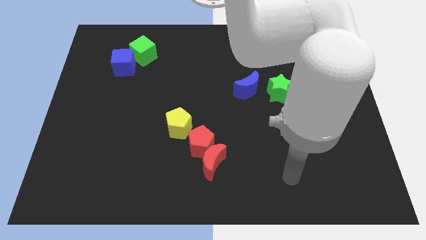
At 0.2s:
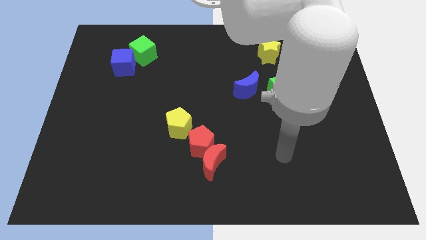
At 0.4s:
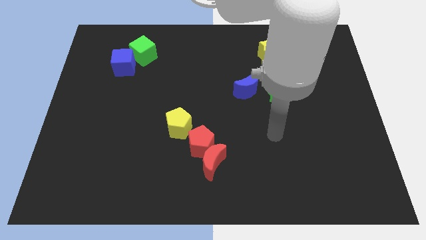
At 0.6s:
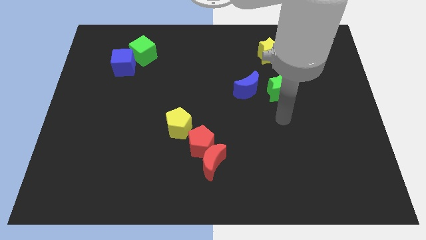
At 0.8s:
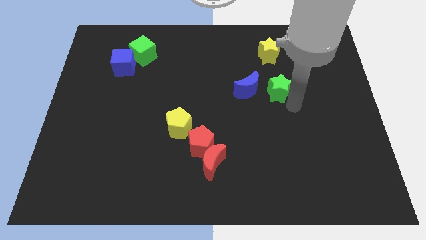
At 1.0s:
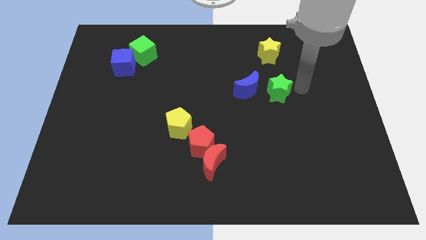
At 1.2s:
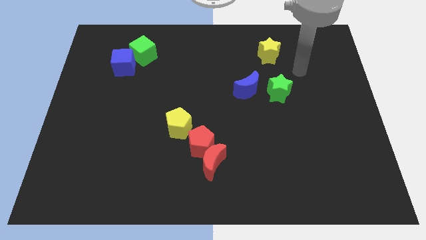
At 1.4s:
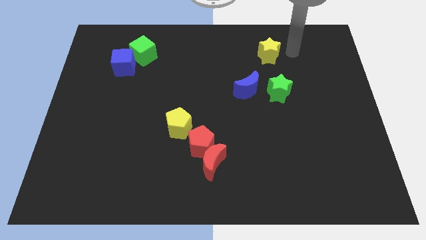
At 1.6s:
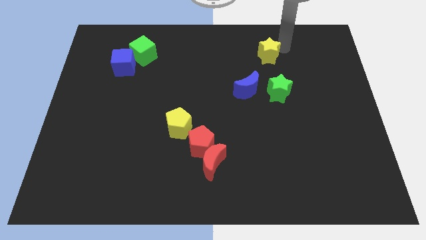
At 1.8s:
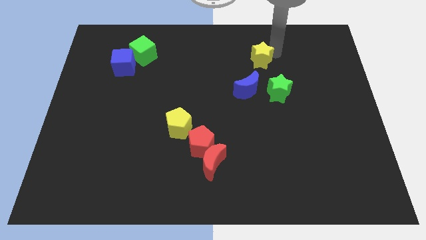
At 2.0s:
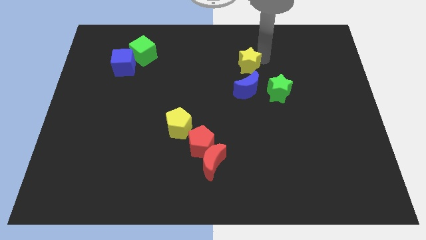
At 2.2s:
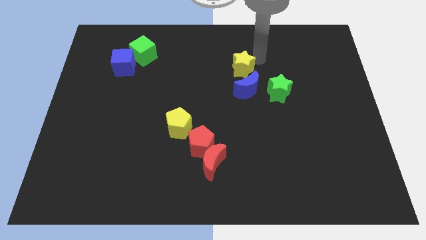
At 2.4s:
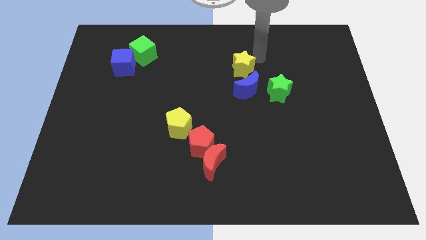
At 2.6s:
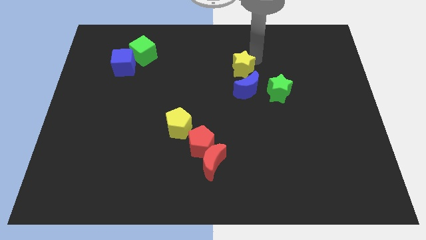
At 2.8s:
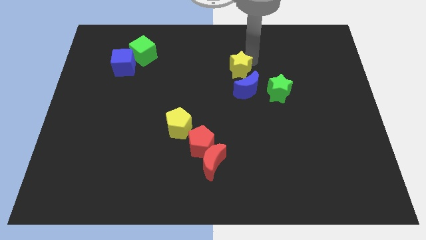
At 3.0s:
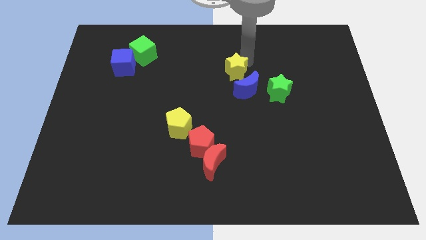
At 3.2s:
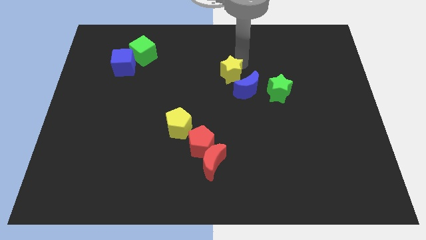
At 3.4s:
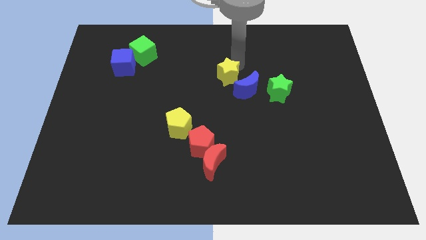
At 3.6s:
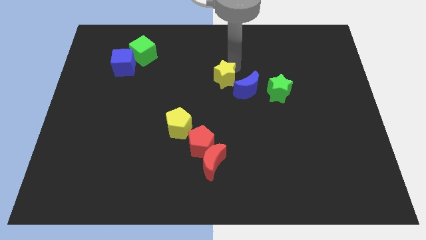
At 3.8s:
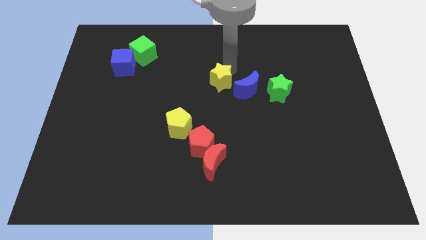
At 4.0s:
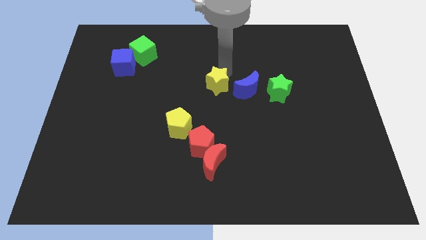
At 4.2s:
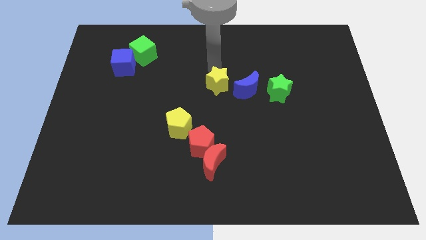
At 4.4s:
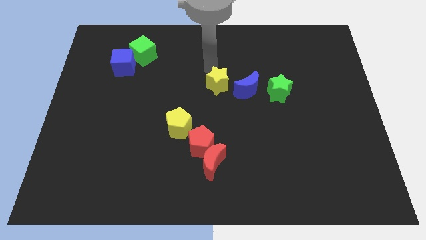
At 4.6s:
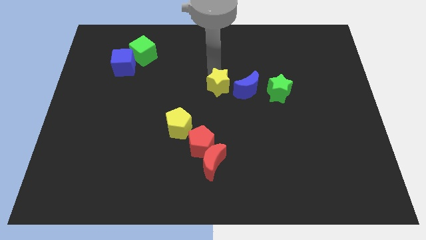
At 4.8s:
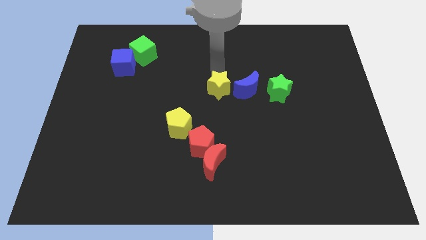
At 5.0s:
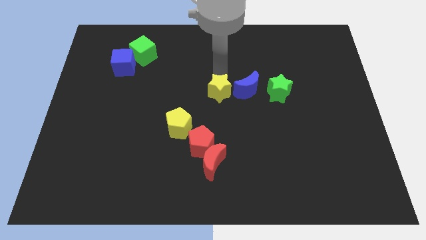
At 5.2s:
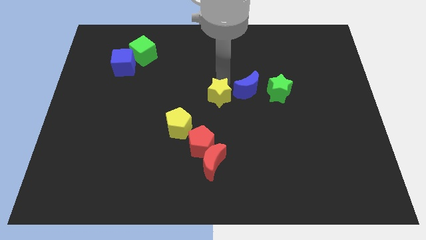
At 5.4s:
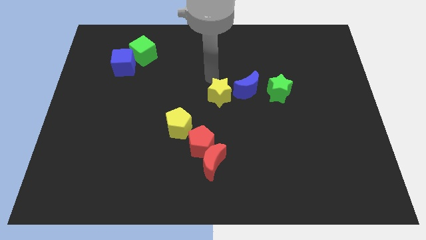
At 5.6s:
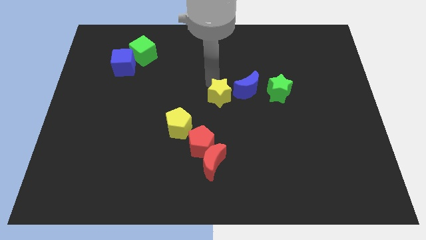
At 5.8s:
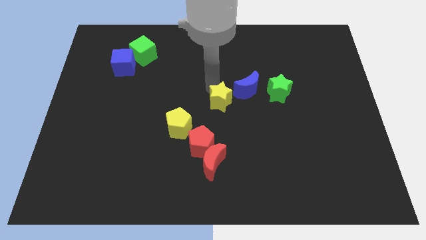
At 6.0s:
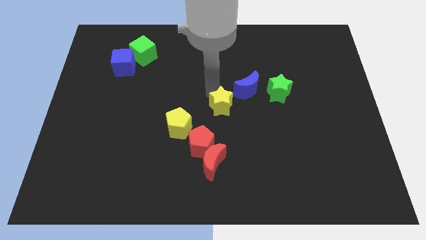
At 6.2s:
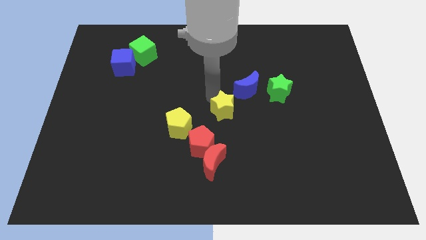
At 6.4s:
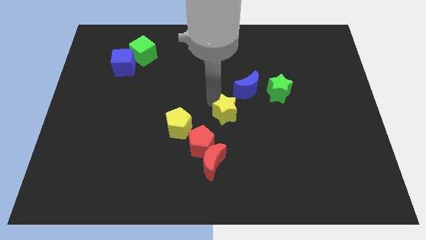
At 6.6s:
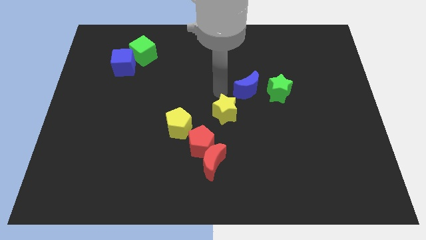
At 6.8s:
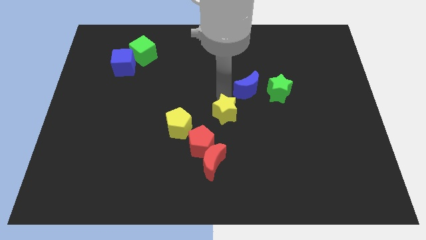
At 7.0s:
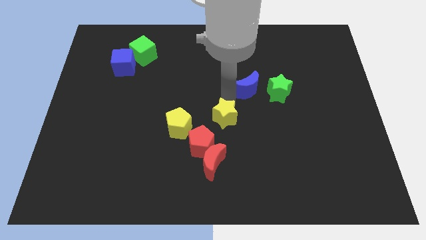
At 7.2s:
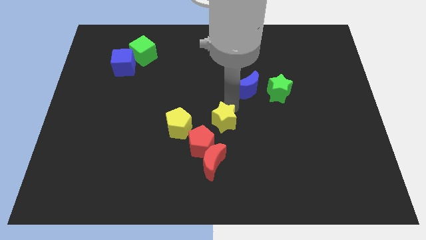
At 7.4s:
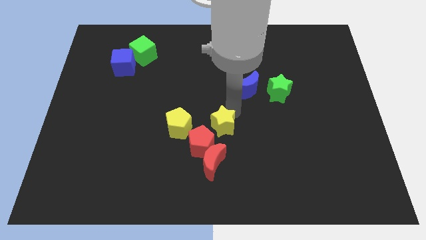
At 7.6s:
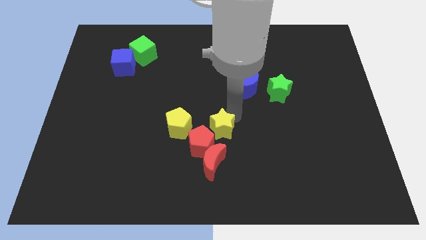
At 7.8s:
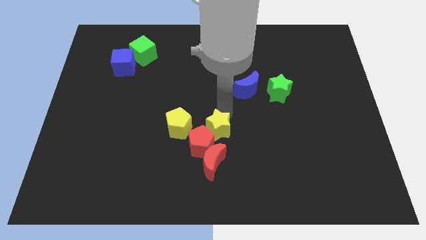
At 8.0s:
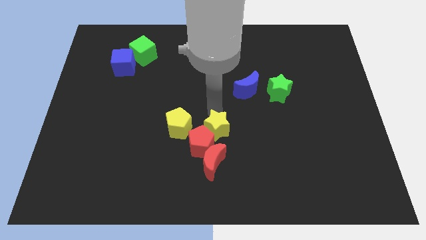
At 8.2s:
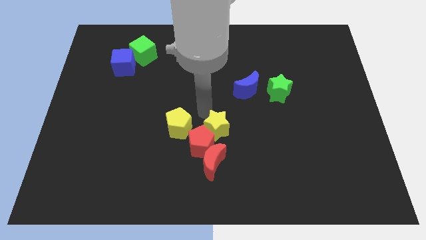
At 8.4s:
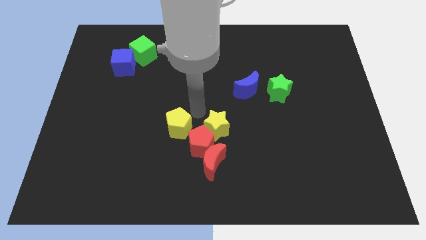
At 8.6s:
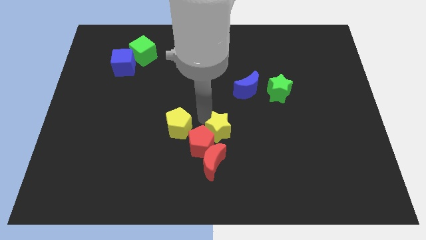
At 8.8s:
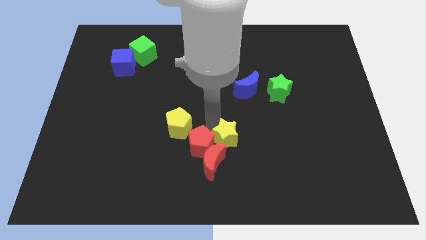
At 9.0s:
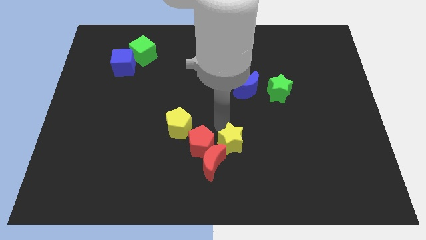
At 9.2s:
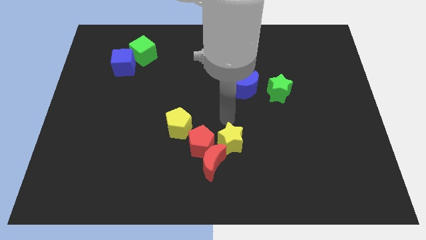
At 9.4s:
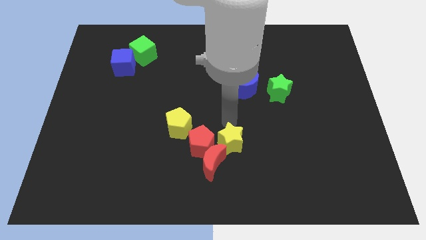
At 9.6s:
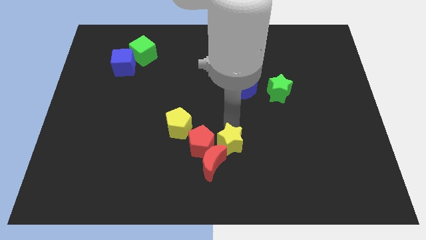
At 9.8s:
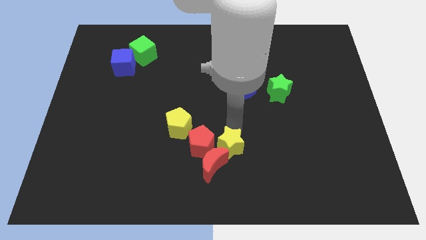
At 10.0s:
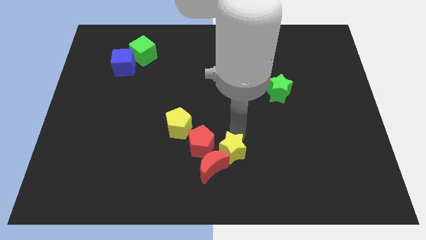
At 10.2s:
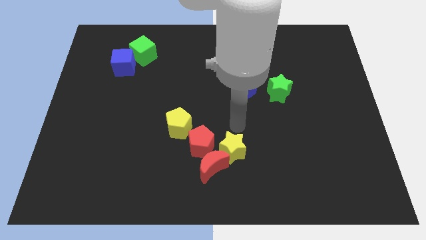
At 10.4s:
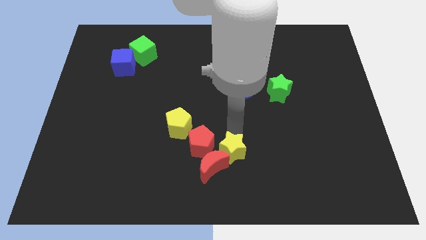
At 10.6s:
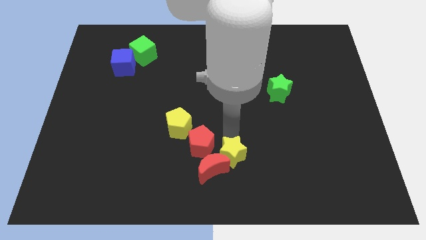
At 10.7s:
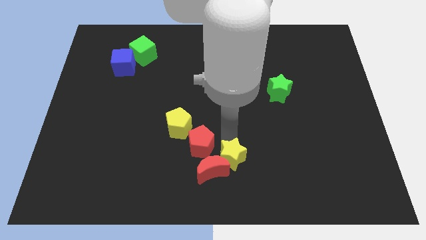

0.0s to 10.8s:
put the yellow star to the bottom

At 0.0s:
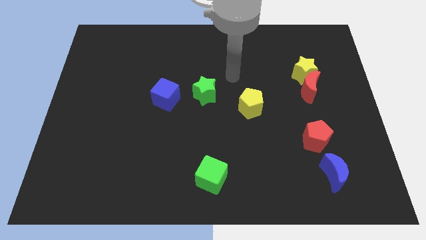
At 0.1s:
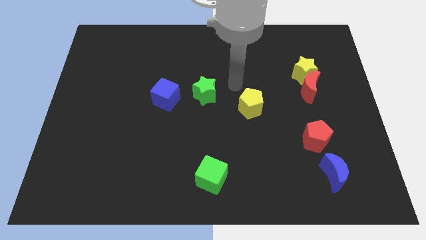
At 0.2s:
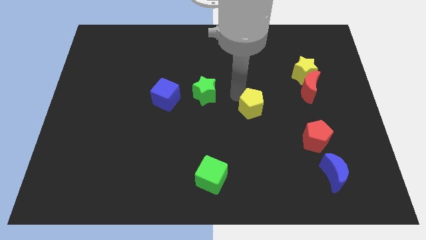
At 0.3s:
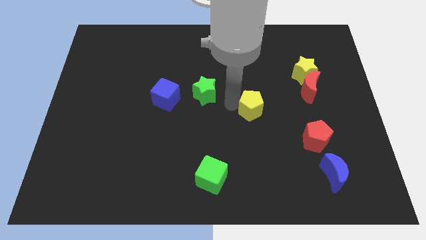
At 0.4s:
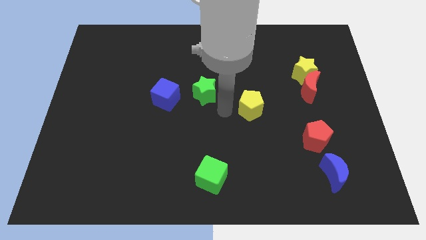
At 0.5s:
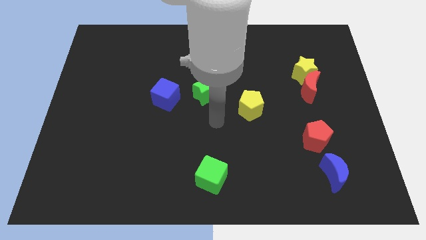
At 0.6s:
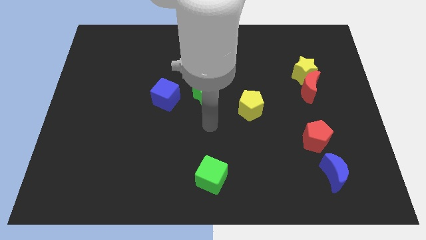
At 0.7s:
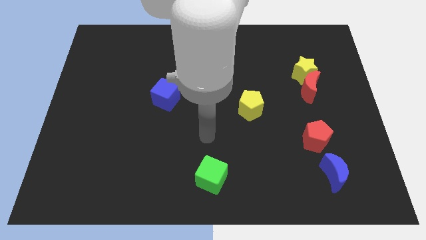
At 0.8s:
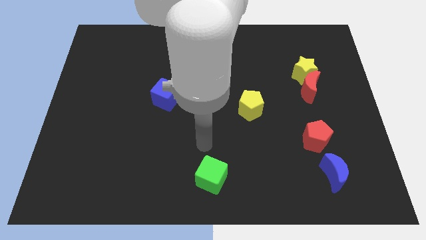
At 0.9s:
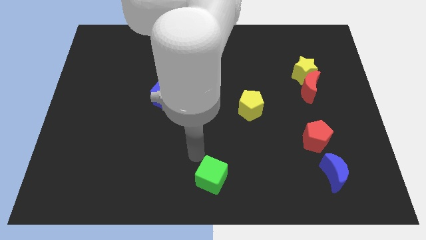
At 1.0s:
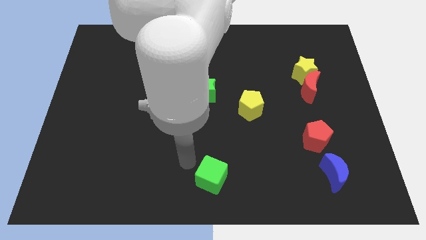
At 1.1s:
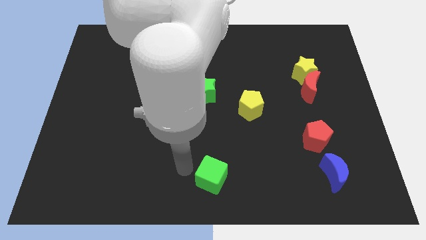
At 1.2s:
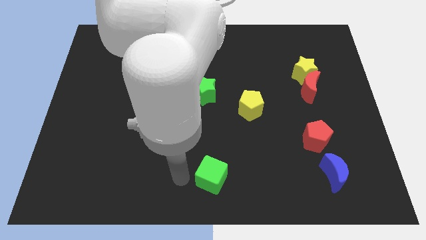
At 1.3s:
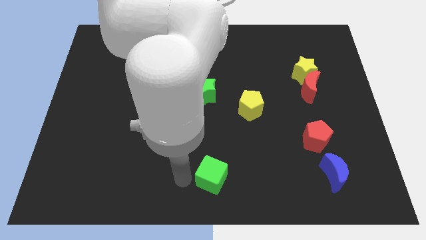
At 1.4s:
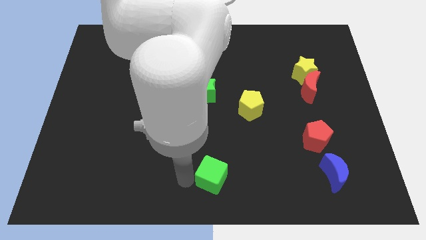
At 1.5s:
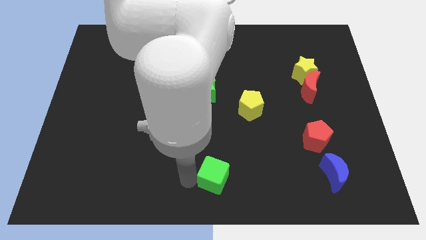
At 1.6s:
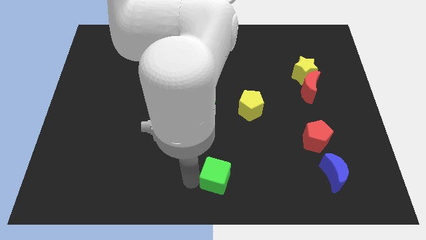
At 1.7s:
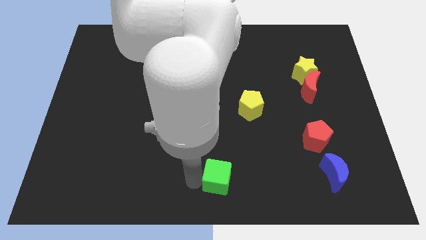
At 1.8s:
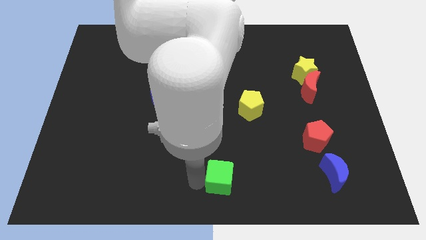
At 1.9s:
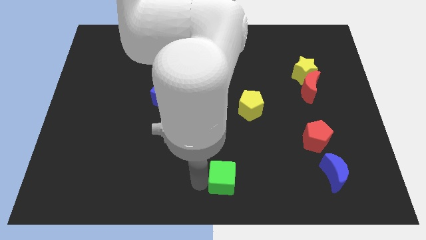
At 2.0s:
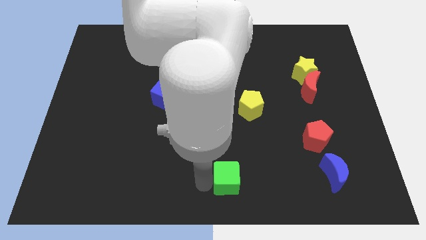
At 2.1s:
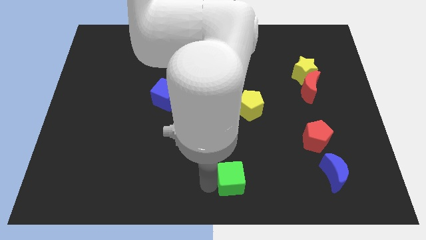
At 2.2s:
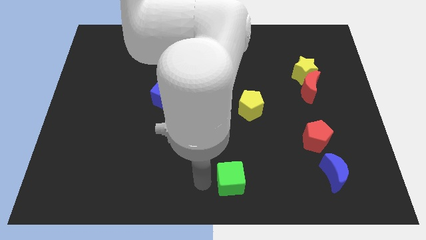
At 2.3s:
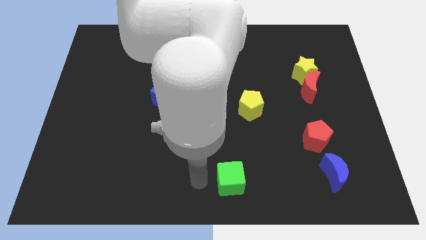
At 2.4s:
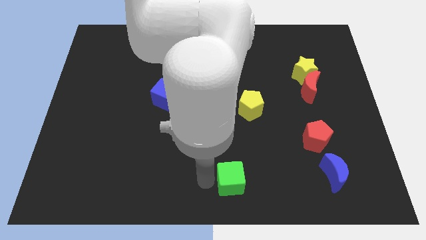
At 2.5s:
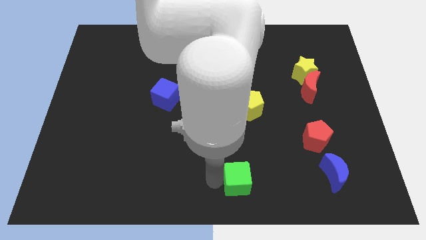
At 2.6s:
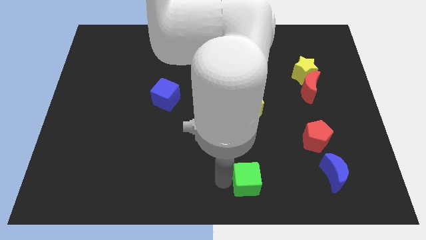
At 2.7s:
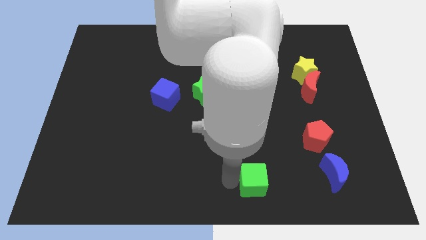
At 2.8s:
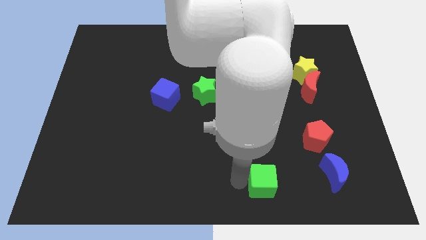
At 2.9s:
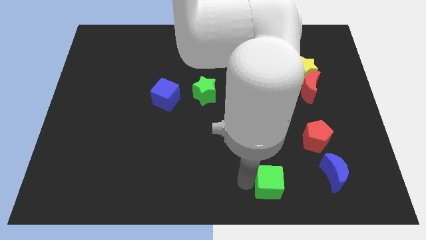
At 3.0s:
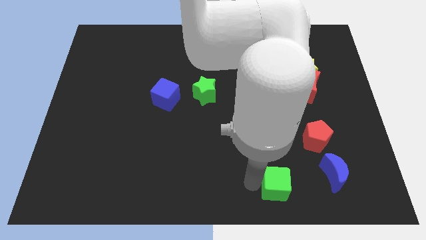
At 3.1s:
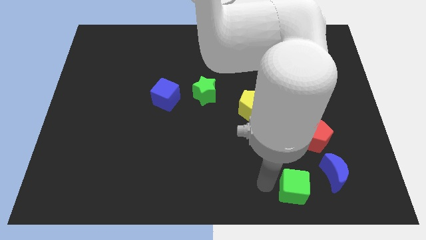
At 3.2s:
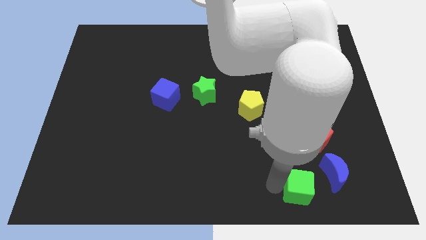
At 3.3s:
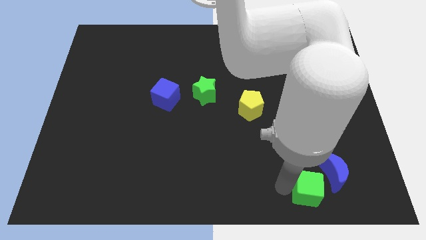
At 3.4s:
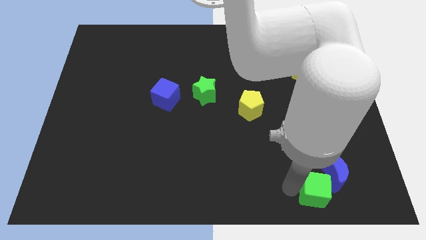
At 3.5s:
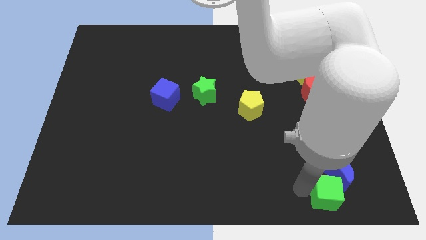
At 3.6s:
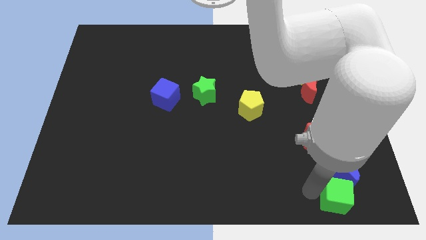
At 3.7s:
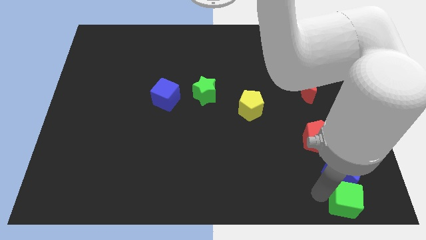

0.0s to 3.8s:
move the green cube to the bottom right corner
